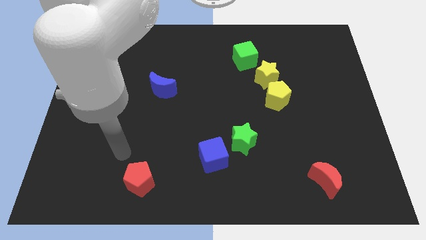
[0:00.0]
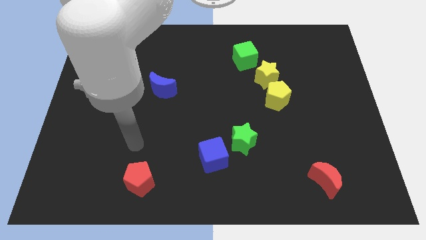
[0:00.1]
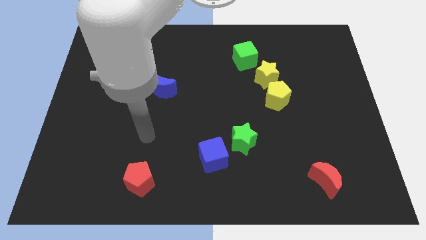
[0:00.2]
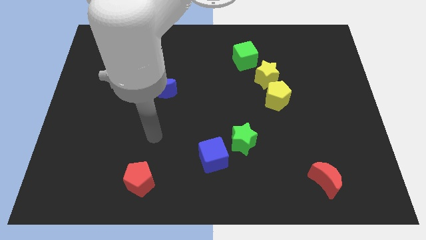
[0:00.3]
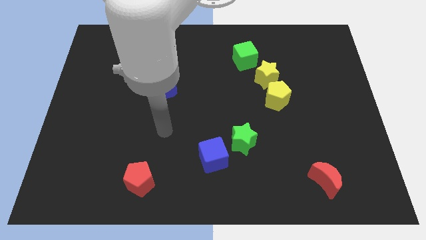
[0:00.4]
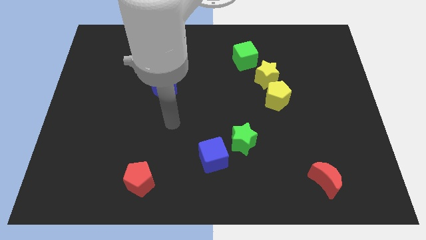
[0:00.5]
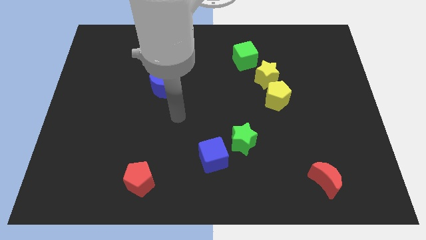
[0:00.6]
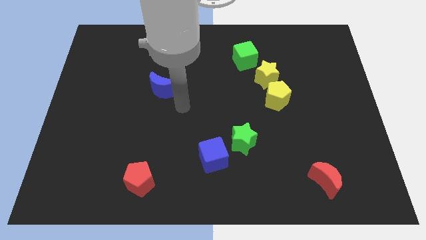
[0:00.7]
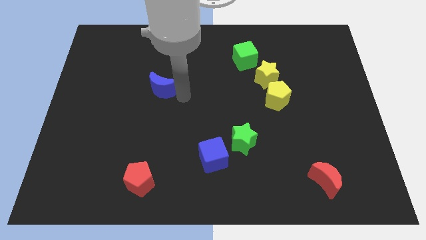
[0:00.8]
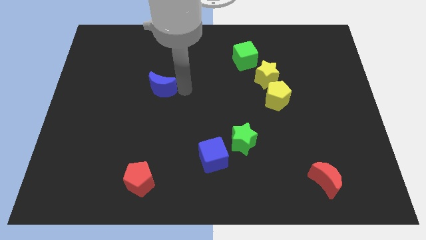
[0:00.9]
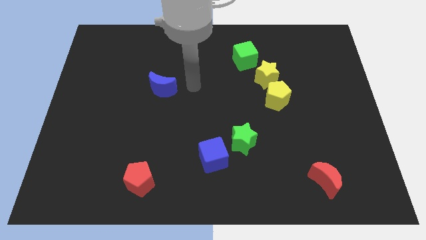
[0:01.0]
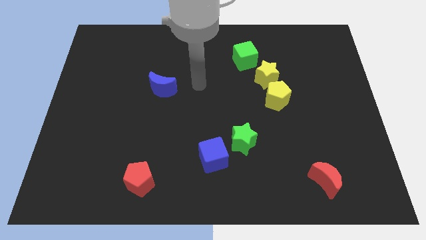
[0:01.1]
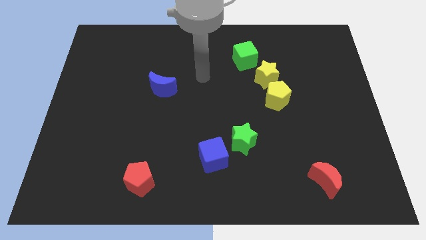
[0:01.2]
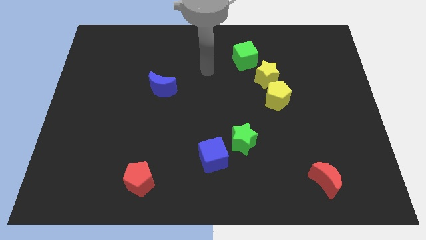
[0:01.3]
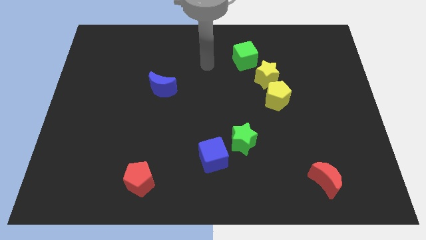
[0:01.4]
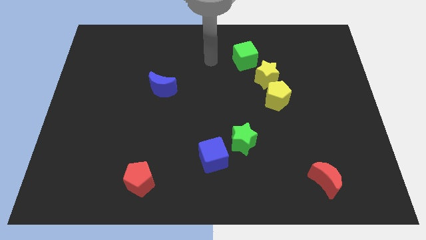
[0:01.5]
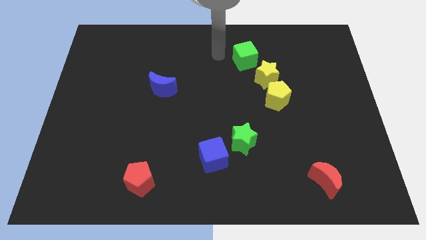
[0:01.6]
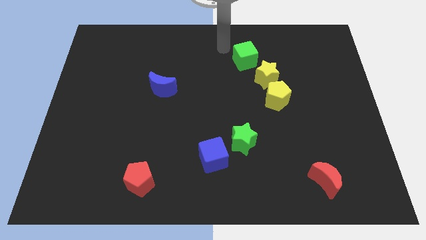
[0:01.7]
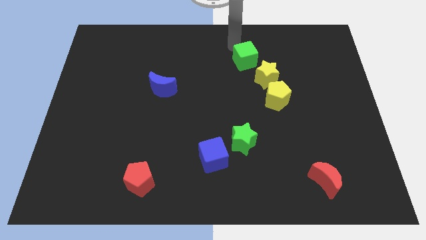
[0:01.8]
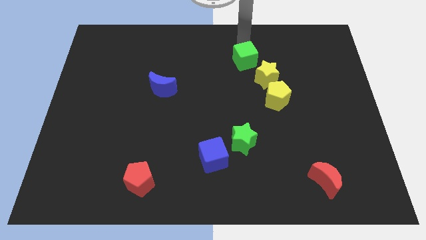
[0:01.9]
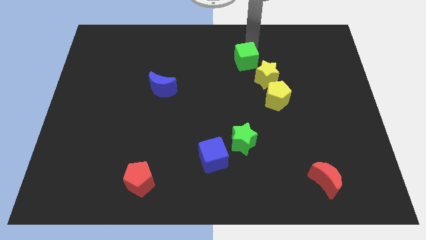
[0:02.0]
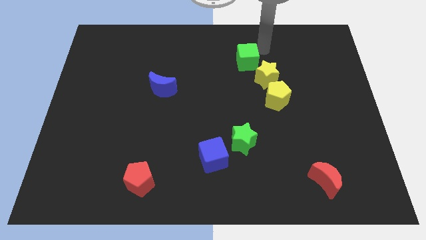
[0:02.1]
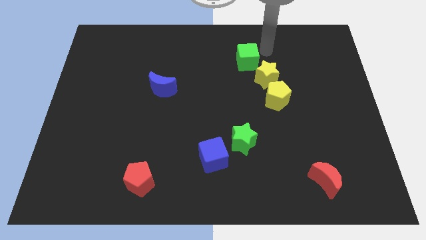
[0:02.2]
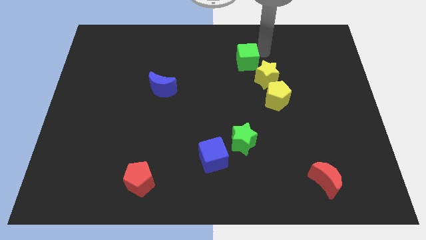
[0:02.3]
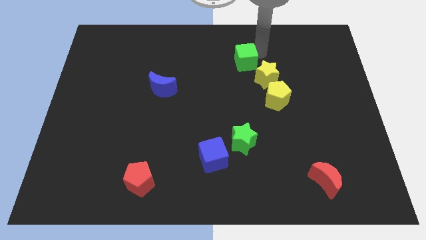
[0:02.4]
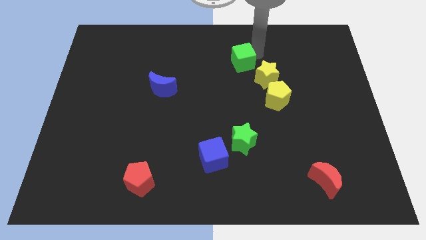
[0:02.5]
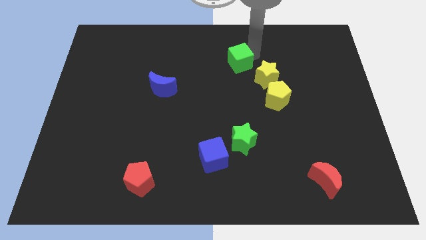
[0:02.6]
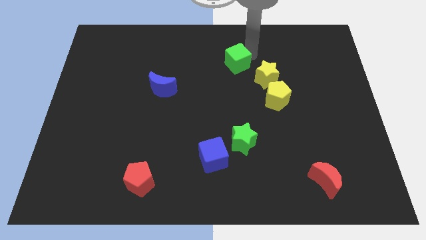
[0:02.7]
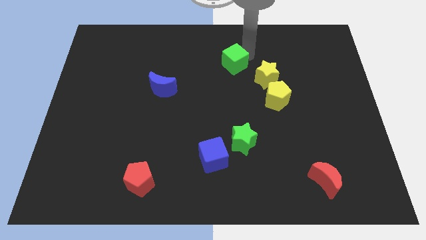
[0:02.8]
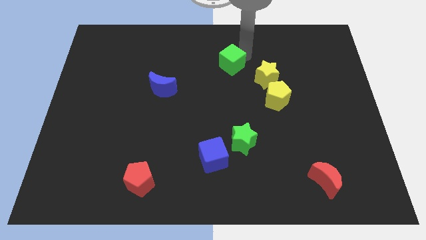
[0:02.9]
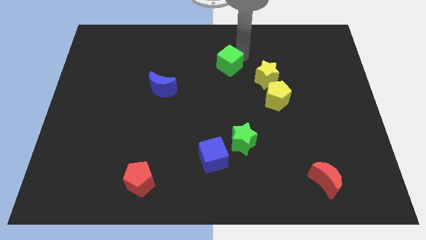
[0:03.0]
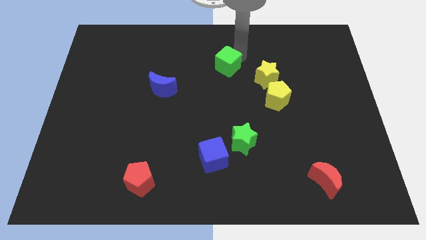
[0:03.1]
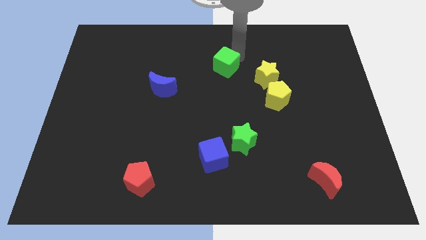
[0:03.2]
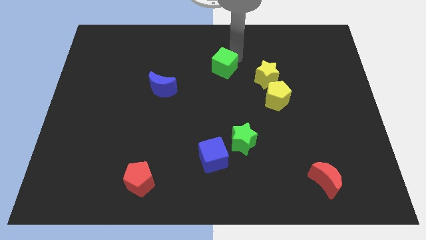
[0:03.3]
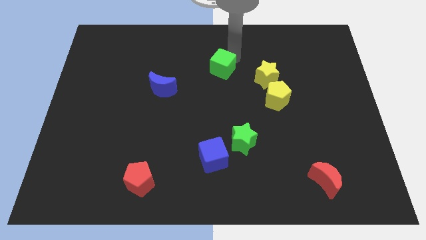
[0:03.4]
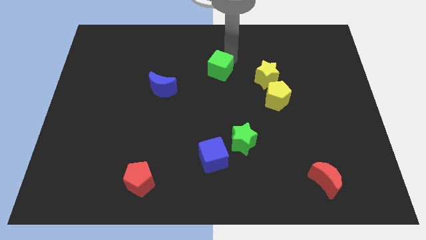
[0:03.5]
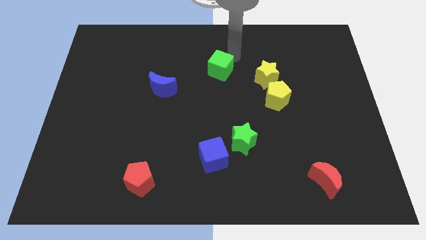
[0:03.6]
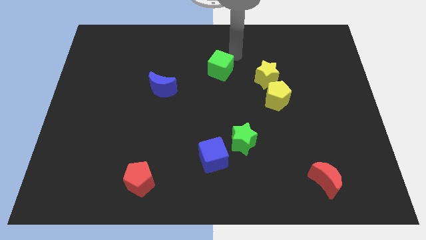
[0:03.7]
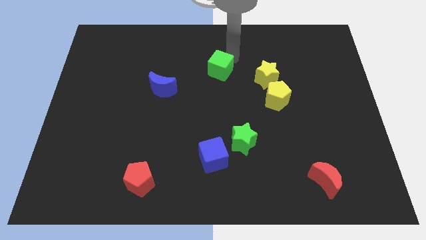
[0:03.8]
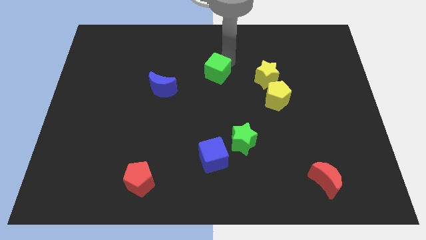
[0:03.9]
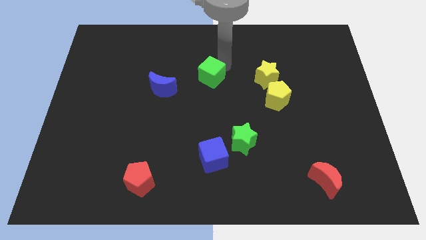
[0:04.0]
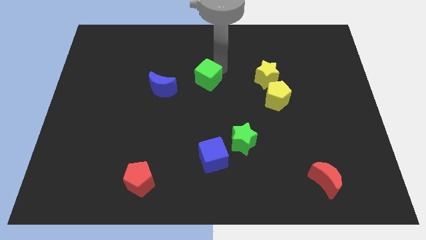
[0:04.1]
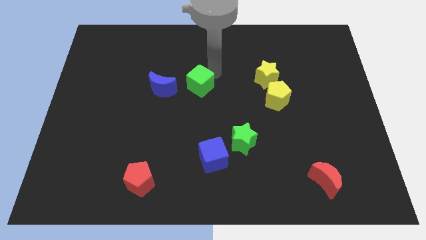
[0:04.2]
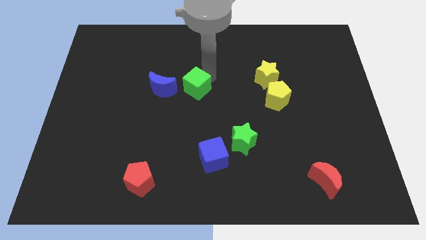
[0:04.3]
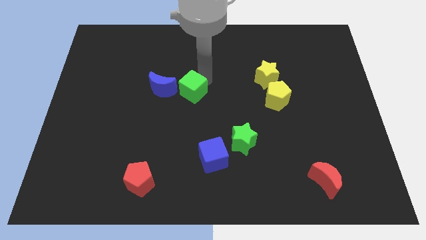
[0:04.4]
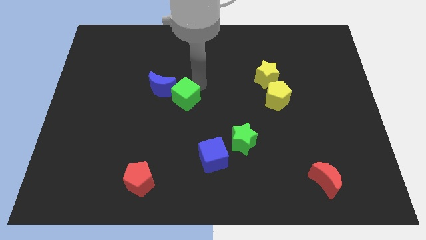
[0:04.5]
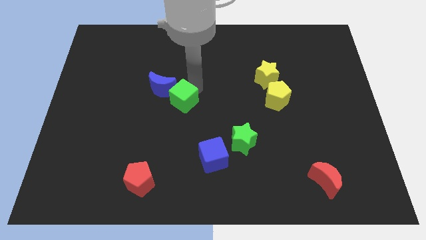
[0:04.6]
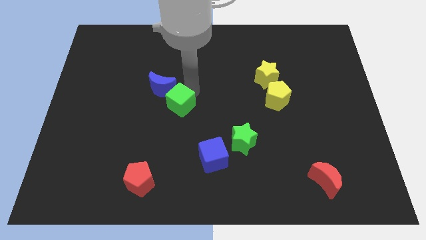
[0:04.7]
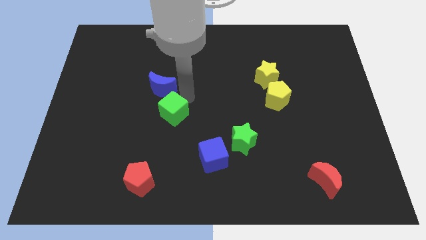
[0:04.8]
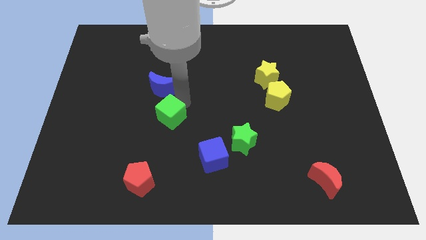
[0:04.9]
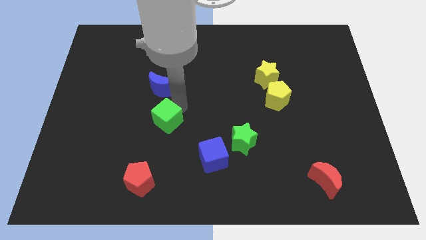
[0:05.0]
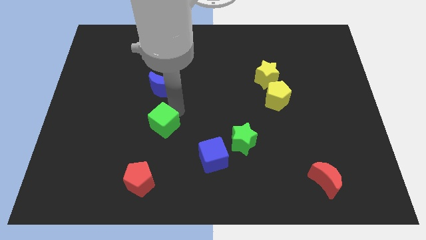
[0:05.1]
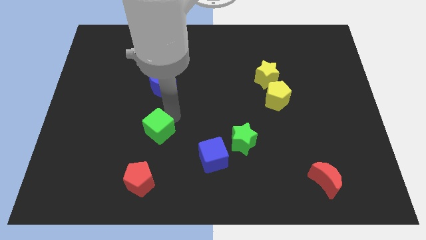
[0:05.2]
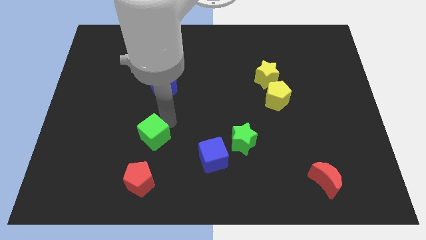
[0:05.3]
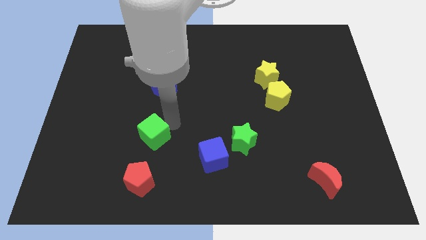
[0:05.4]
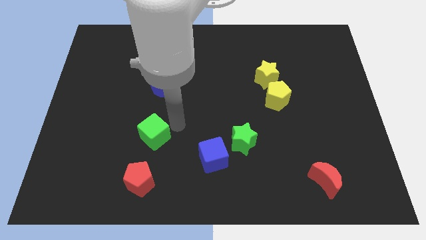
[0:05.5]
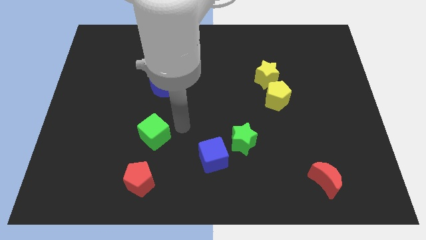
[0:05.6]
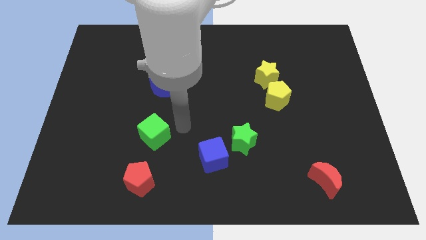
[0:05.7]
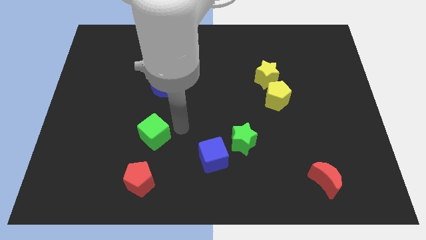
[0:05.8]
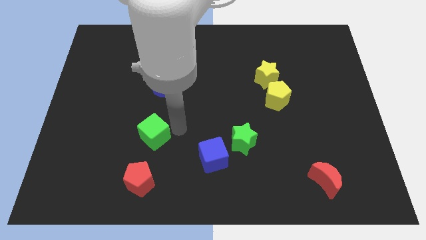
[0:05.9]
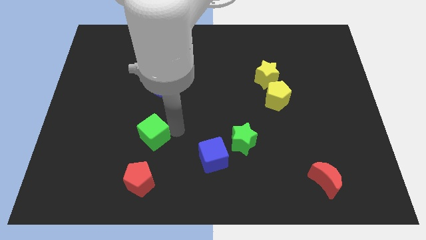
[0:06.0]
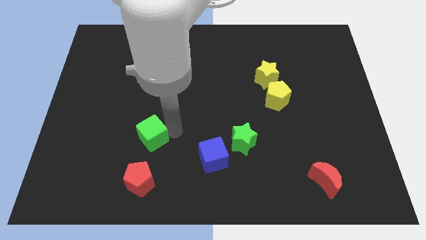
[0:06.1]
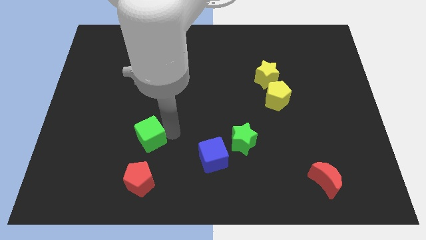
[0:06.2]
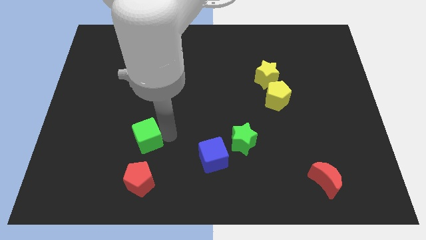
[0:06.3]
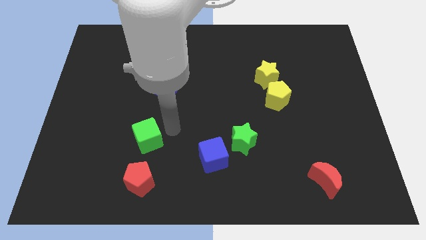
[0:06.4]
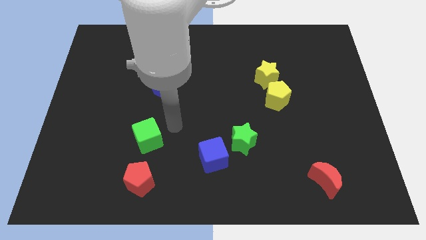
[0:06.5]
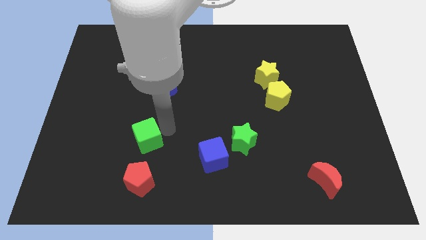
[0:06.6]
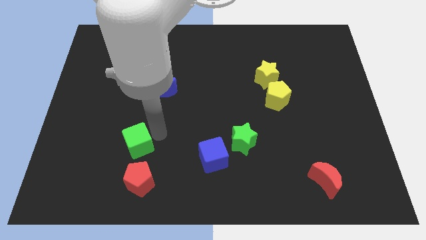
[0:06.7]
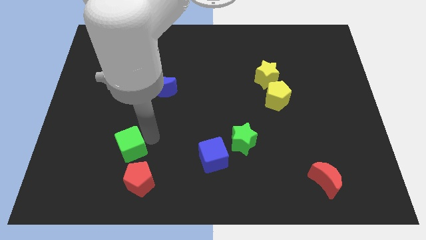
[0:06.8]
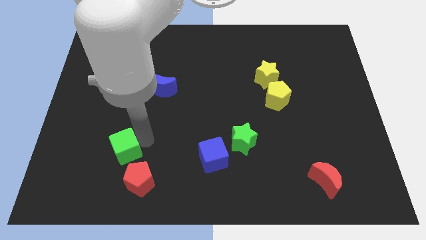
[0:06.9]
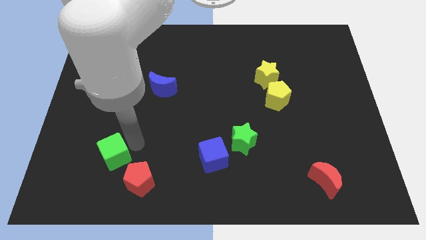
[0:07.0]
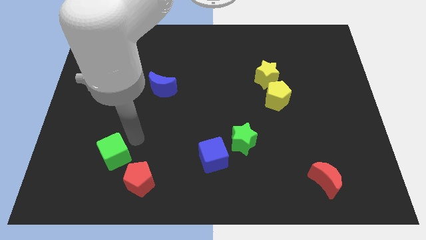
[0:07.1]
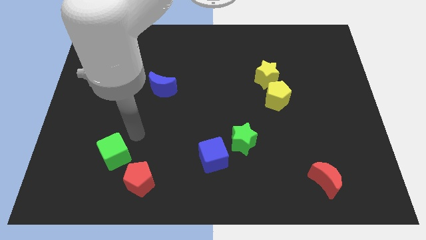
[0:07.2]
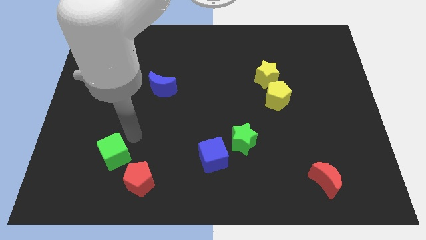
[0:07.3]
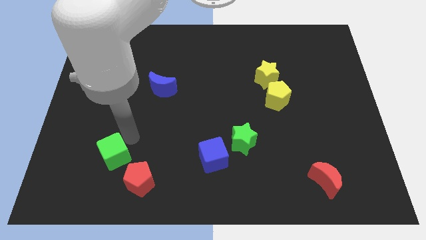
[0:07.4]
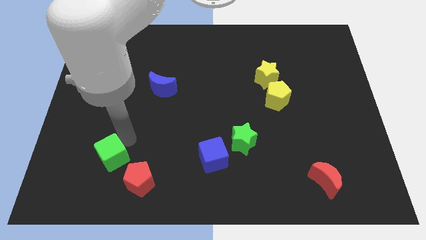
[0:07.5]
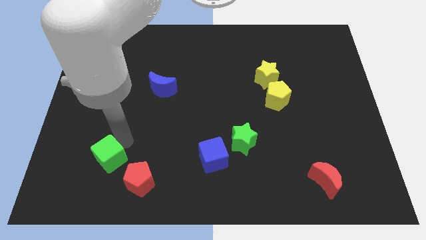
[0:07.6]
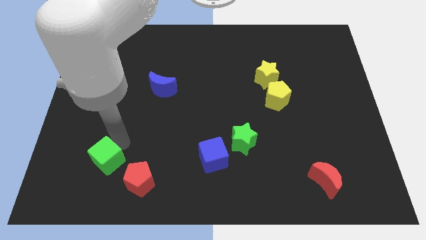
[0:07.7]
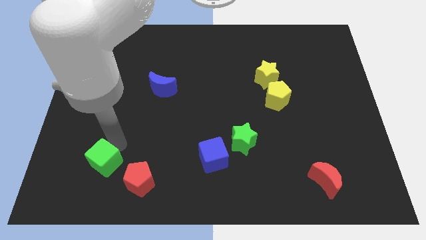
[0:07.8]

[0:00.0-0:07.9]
slide the green cube to the left side of the red pentagon
